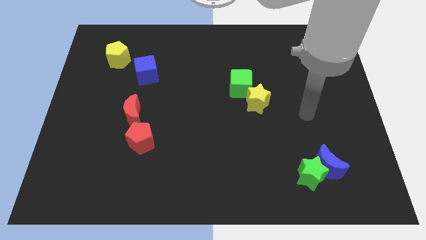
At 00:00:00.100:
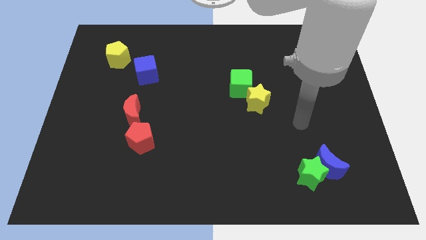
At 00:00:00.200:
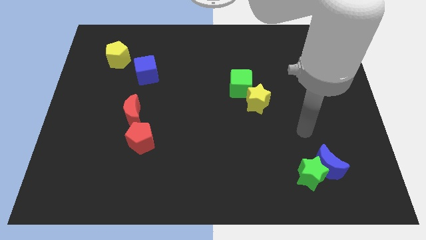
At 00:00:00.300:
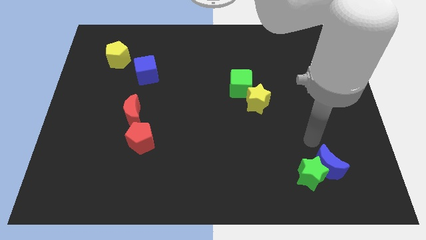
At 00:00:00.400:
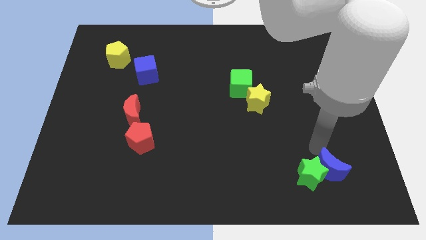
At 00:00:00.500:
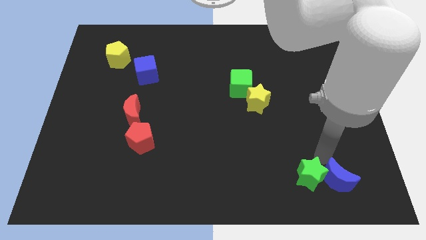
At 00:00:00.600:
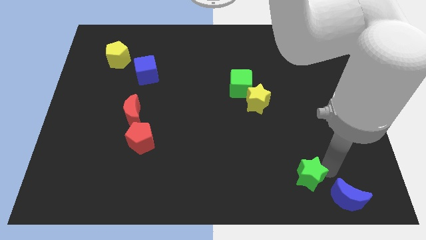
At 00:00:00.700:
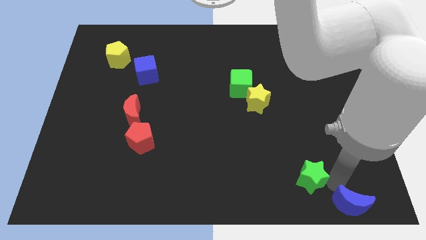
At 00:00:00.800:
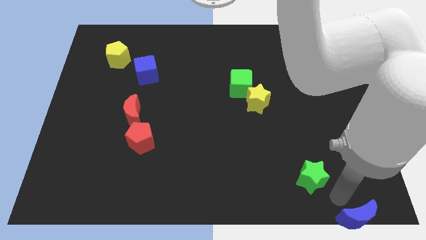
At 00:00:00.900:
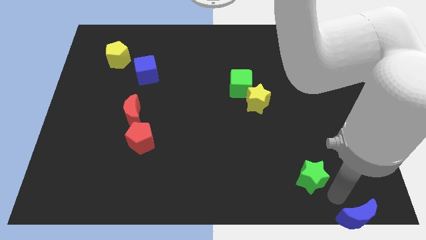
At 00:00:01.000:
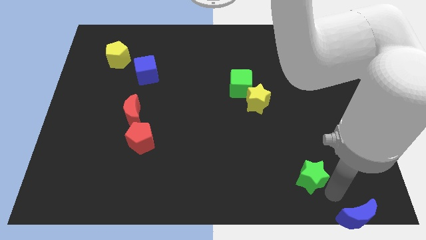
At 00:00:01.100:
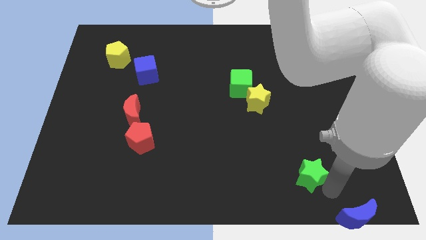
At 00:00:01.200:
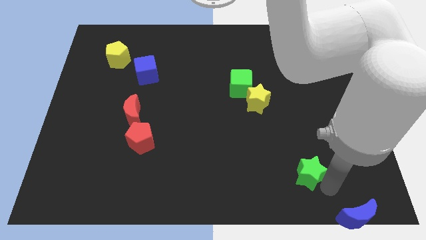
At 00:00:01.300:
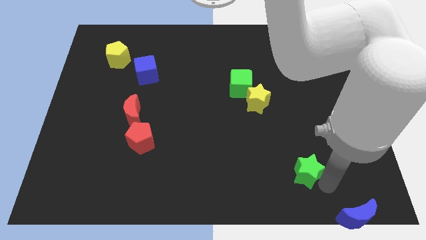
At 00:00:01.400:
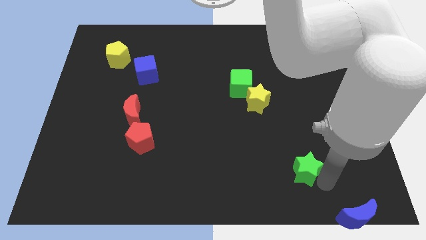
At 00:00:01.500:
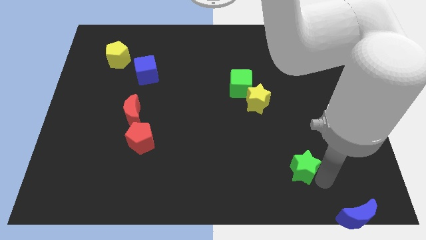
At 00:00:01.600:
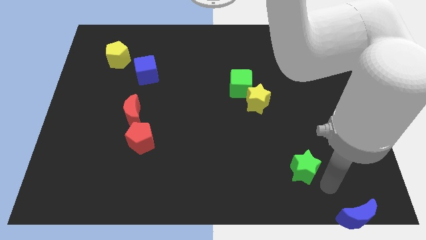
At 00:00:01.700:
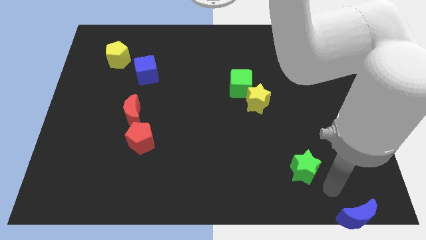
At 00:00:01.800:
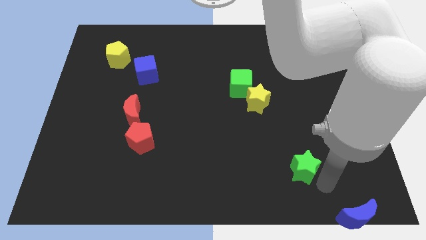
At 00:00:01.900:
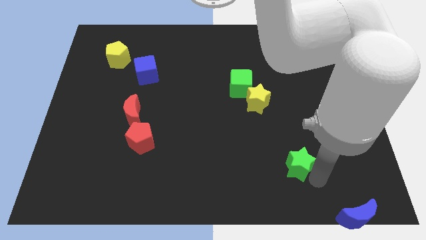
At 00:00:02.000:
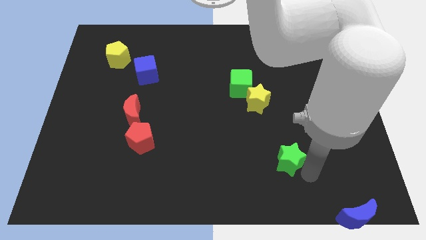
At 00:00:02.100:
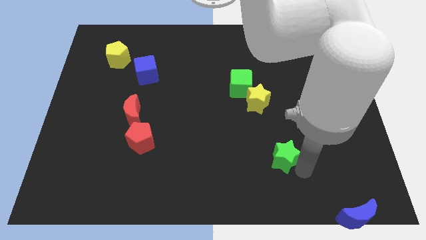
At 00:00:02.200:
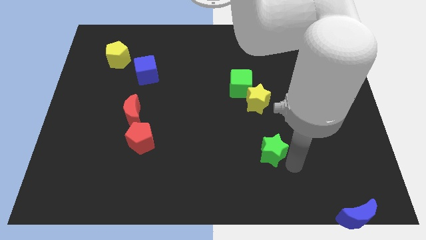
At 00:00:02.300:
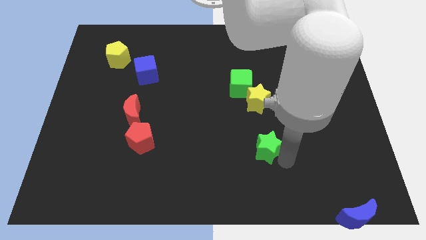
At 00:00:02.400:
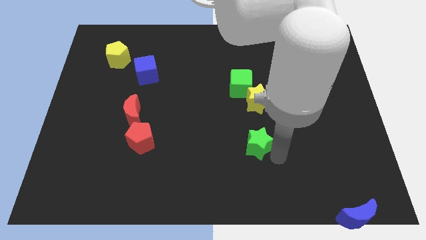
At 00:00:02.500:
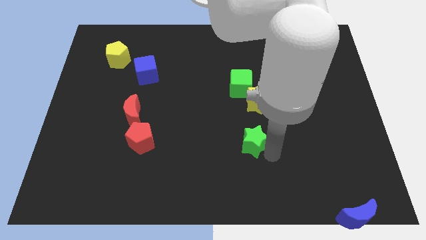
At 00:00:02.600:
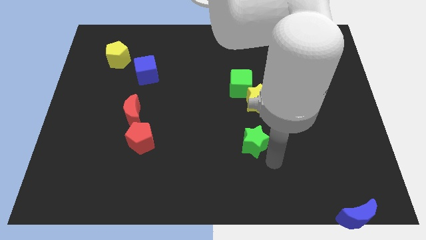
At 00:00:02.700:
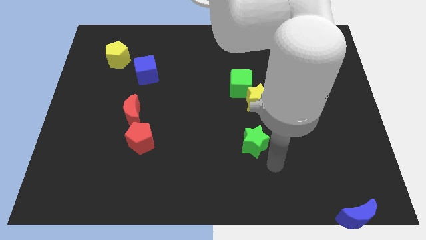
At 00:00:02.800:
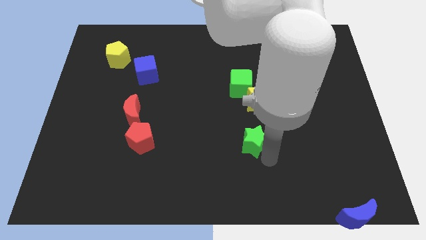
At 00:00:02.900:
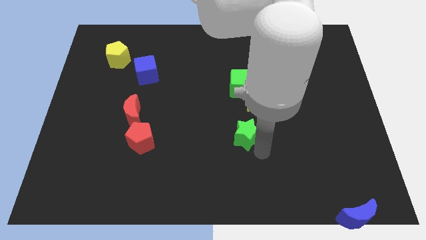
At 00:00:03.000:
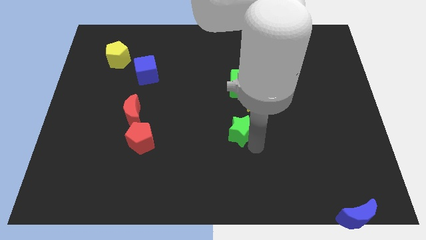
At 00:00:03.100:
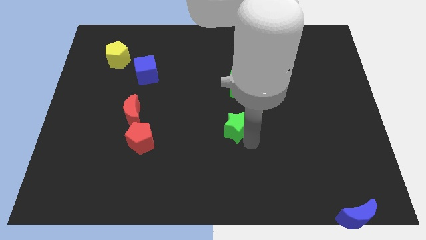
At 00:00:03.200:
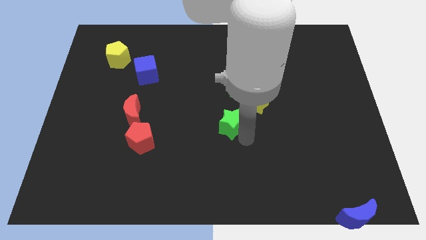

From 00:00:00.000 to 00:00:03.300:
move the green star up and to the left diagonally

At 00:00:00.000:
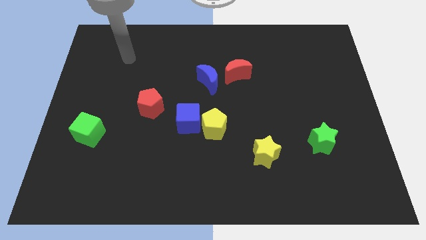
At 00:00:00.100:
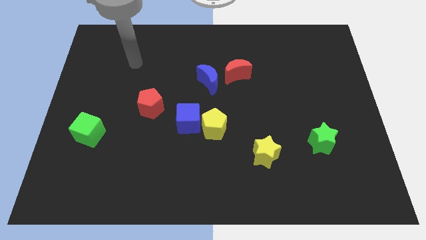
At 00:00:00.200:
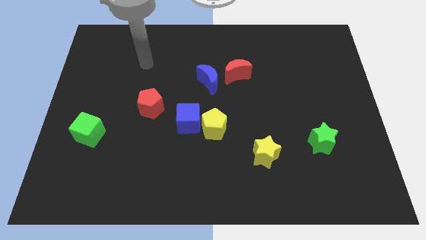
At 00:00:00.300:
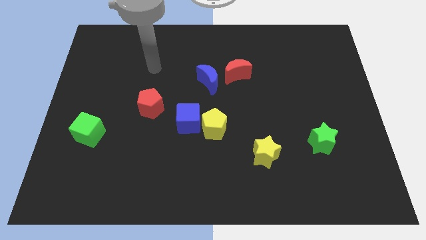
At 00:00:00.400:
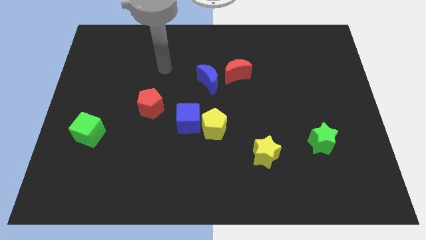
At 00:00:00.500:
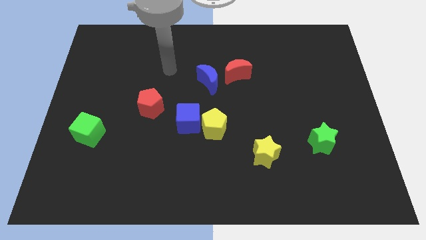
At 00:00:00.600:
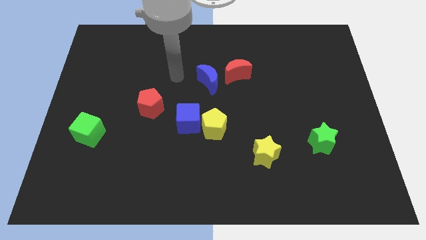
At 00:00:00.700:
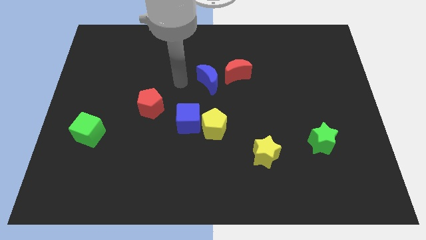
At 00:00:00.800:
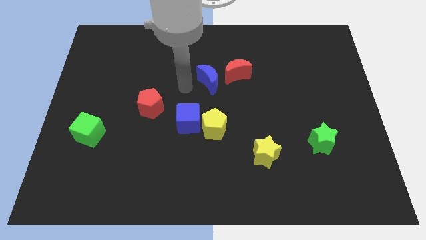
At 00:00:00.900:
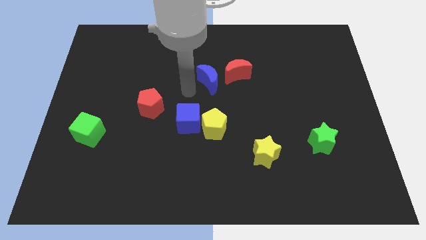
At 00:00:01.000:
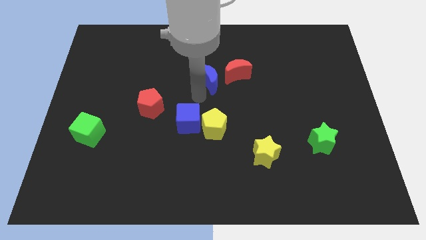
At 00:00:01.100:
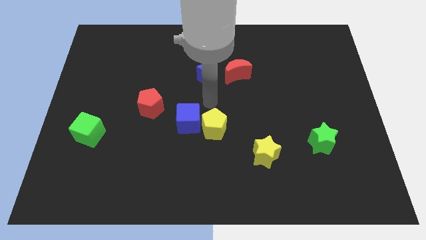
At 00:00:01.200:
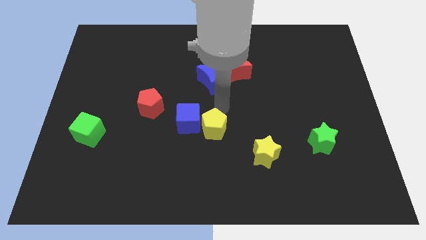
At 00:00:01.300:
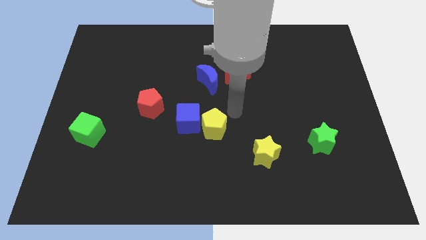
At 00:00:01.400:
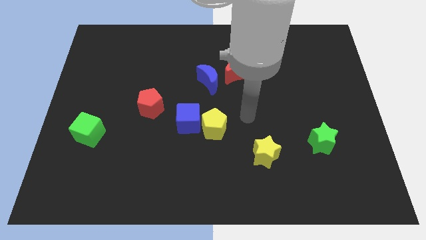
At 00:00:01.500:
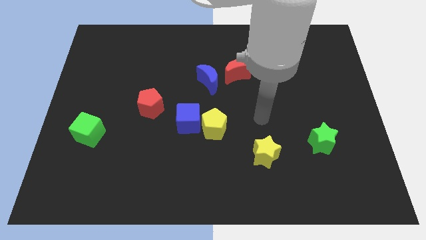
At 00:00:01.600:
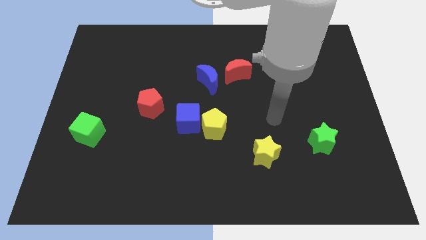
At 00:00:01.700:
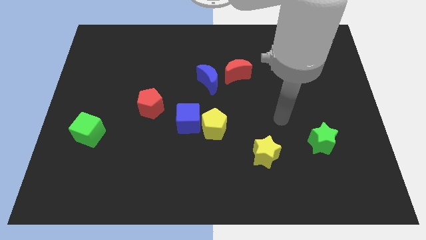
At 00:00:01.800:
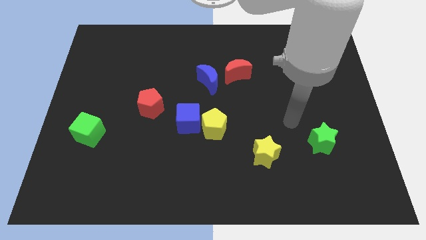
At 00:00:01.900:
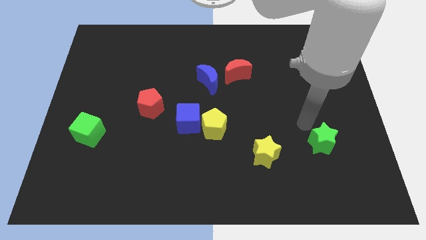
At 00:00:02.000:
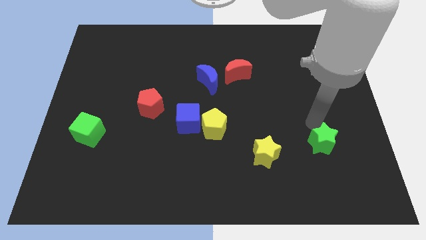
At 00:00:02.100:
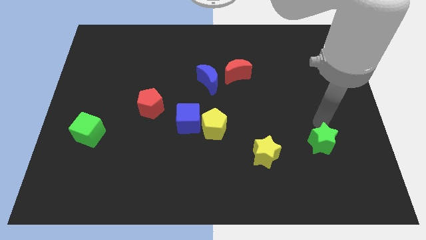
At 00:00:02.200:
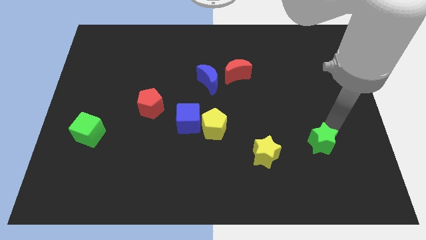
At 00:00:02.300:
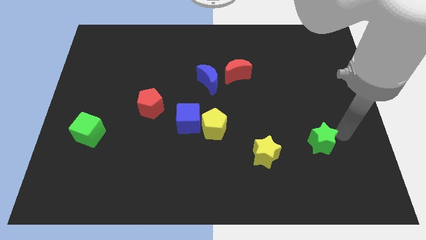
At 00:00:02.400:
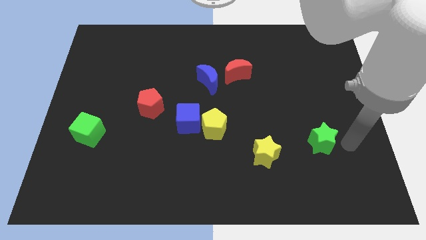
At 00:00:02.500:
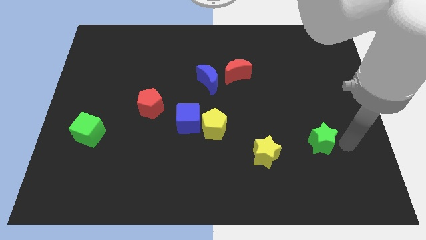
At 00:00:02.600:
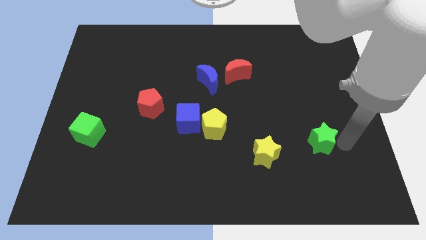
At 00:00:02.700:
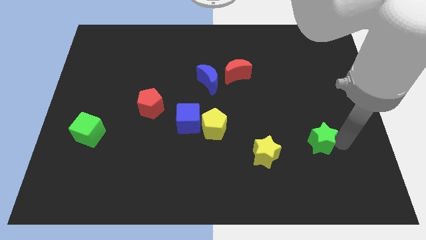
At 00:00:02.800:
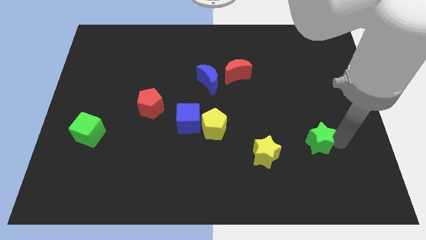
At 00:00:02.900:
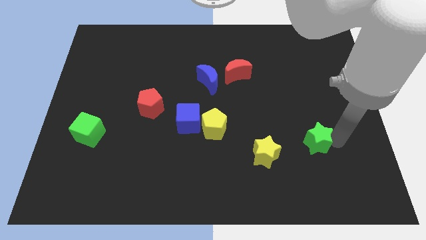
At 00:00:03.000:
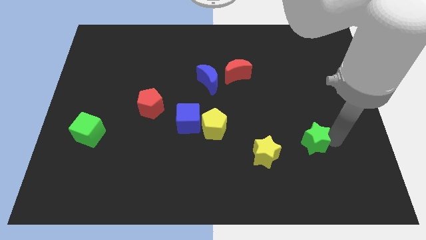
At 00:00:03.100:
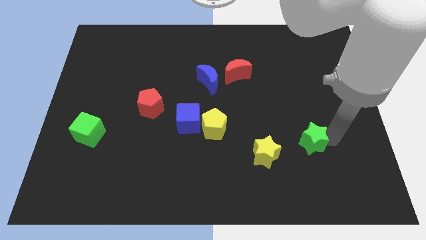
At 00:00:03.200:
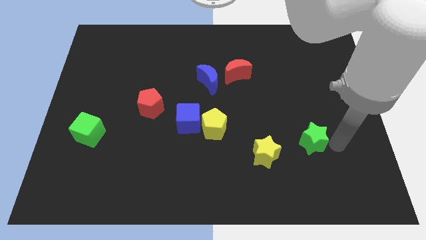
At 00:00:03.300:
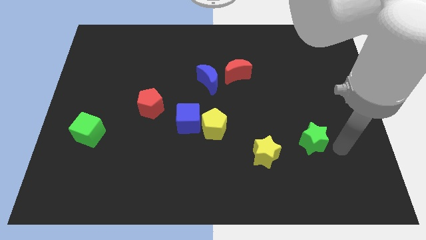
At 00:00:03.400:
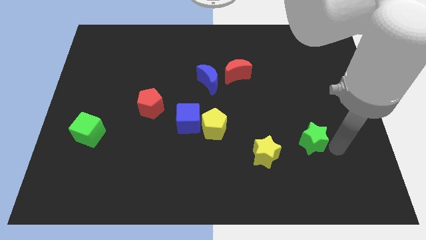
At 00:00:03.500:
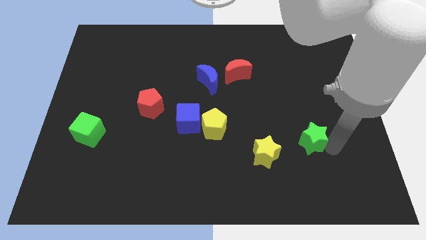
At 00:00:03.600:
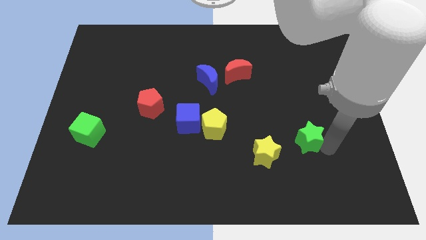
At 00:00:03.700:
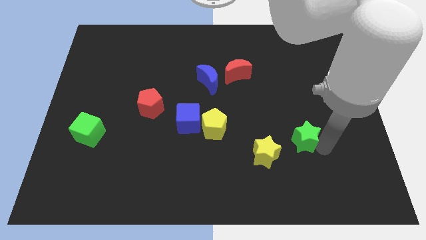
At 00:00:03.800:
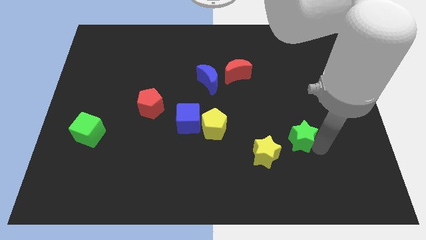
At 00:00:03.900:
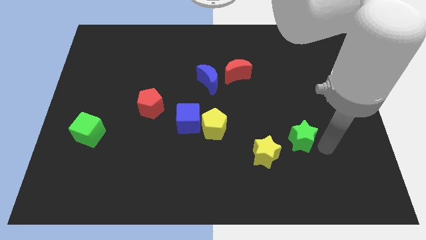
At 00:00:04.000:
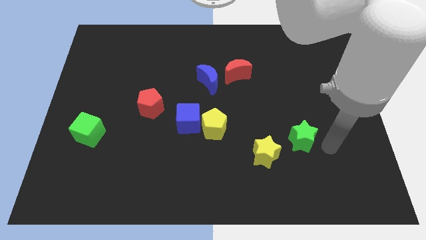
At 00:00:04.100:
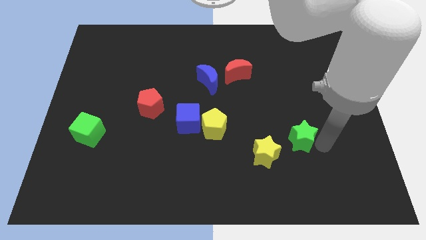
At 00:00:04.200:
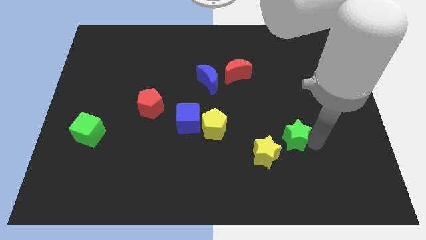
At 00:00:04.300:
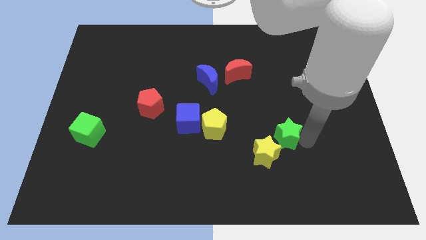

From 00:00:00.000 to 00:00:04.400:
slightly push the green star to the left

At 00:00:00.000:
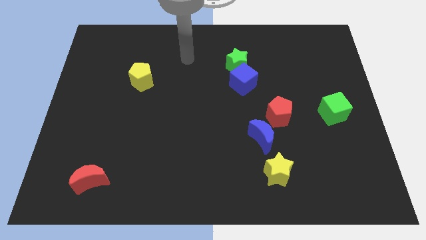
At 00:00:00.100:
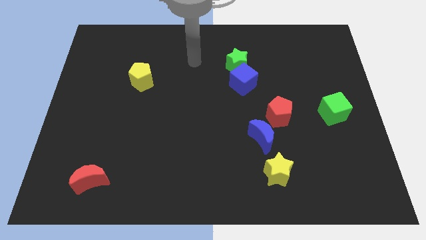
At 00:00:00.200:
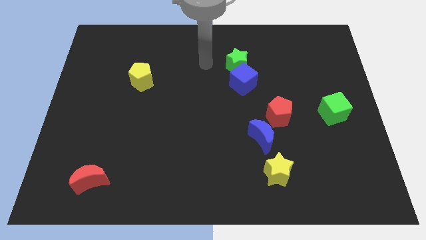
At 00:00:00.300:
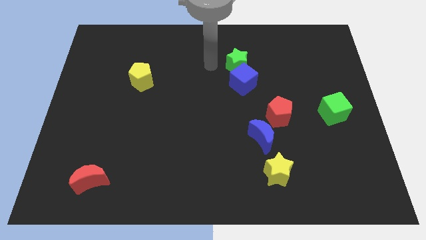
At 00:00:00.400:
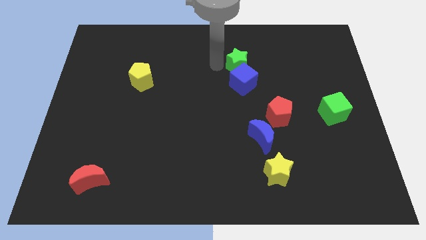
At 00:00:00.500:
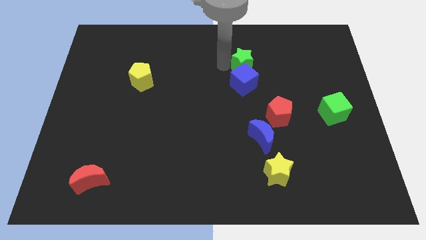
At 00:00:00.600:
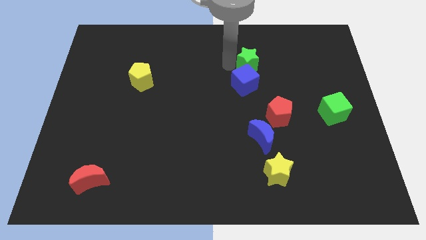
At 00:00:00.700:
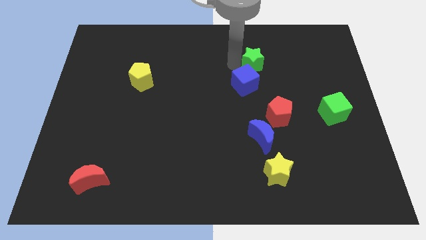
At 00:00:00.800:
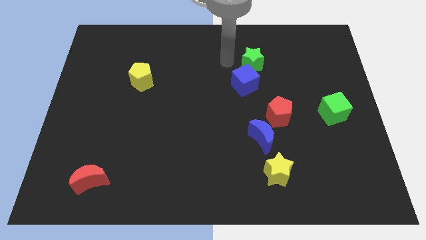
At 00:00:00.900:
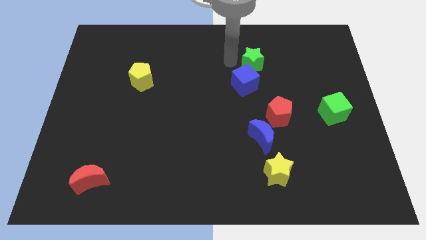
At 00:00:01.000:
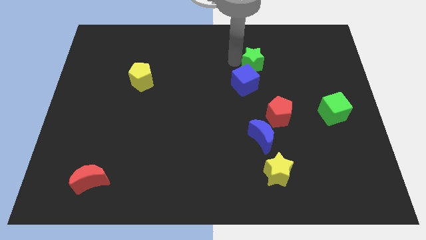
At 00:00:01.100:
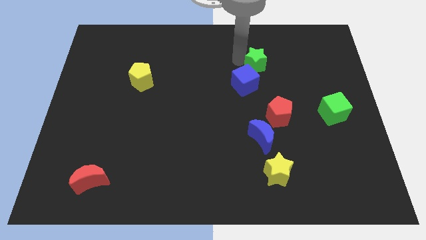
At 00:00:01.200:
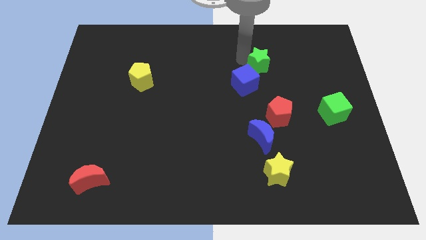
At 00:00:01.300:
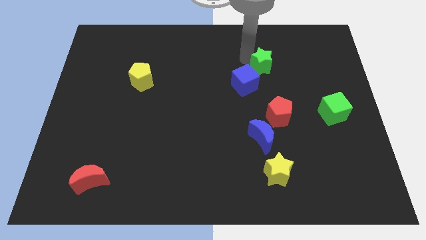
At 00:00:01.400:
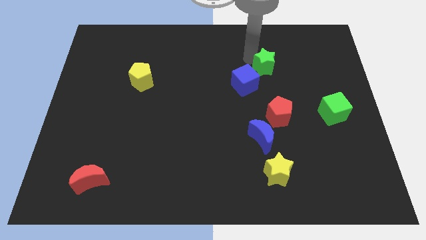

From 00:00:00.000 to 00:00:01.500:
move the green star a little right
